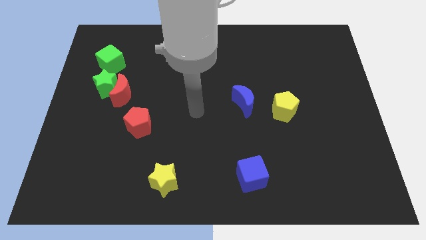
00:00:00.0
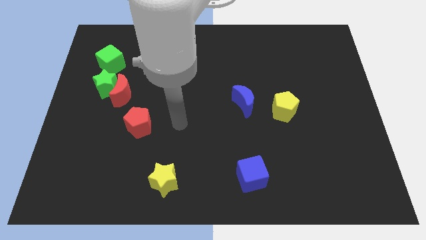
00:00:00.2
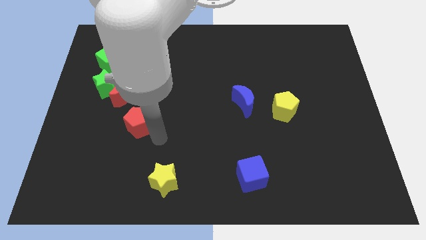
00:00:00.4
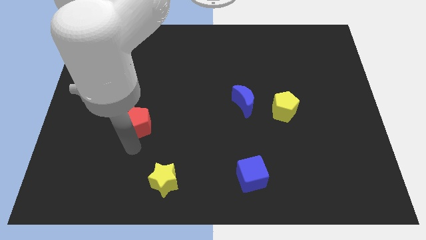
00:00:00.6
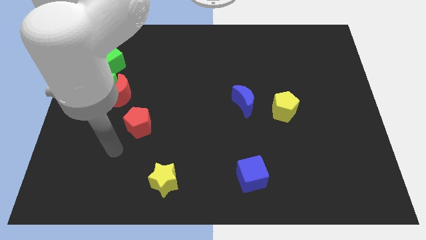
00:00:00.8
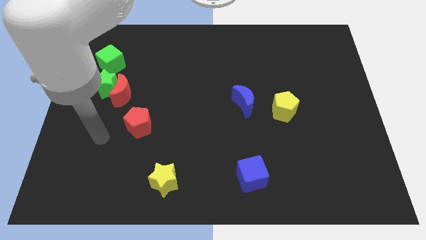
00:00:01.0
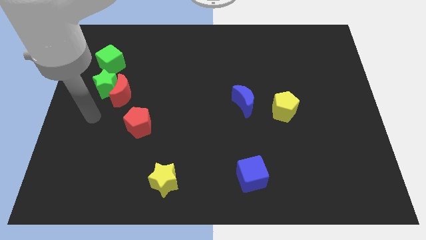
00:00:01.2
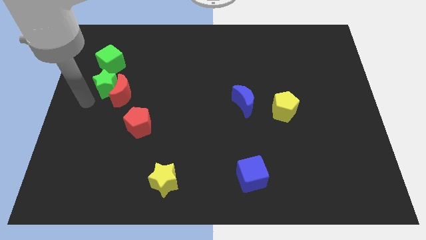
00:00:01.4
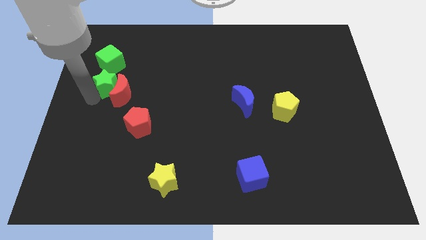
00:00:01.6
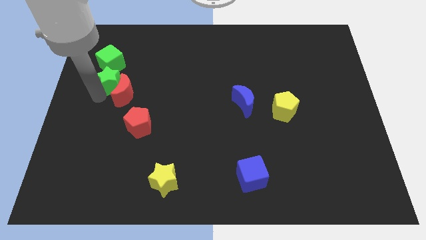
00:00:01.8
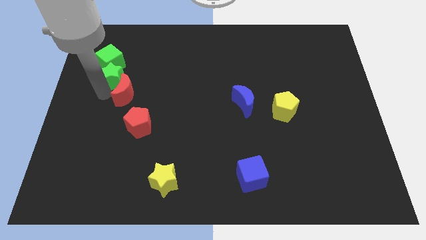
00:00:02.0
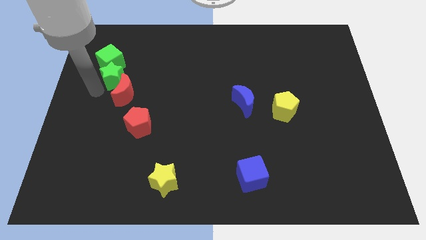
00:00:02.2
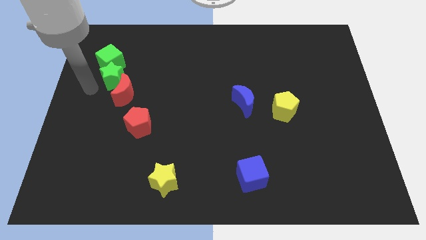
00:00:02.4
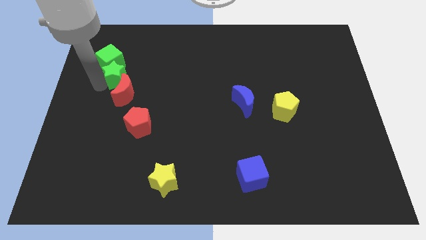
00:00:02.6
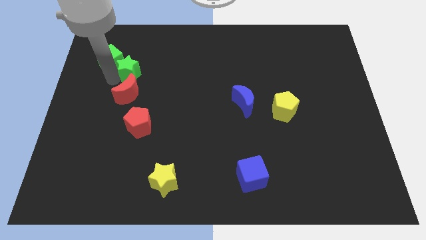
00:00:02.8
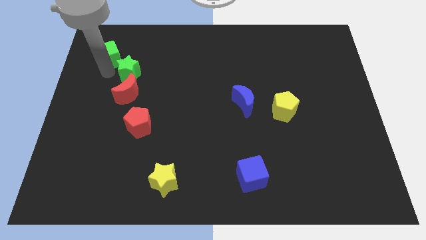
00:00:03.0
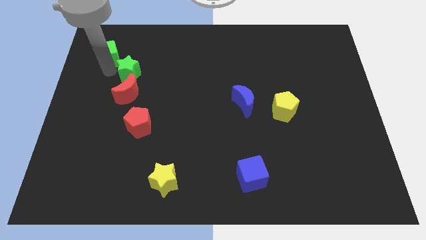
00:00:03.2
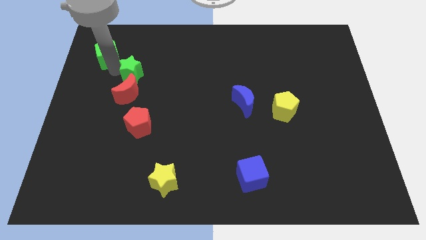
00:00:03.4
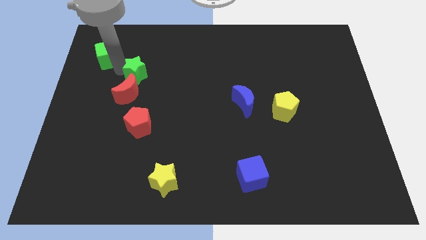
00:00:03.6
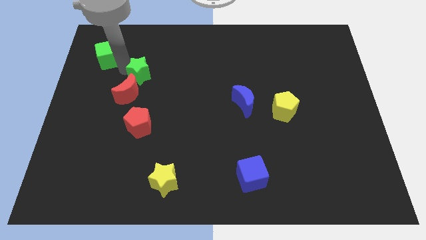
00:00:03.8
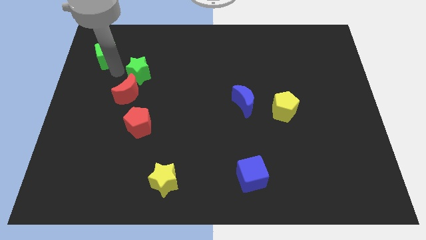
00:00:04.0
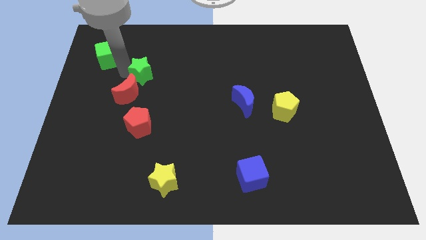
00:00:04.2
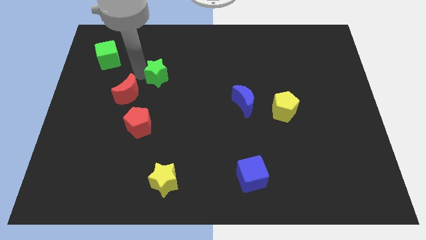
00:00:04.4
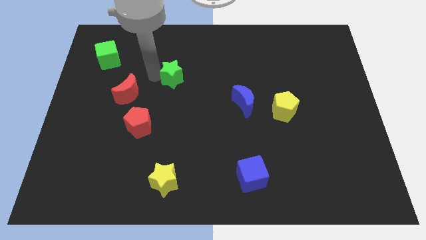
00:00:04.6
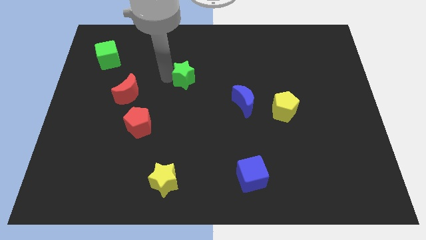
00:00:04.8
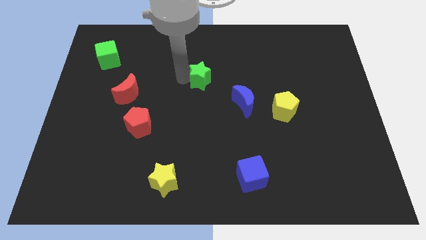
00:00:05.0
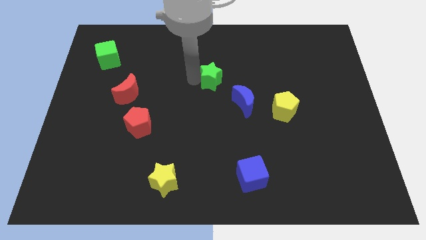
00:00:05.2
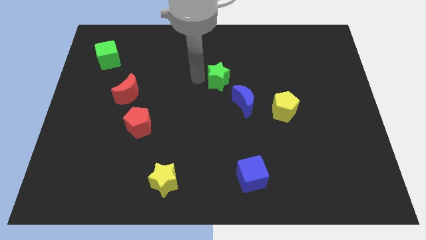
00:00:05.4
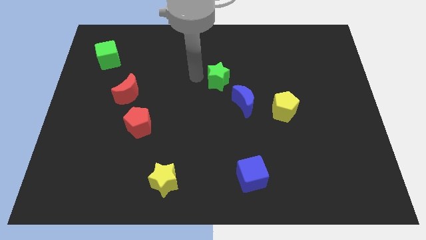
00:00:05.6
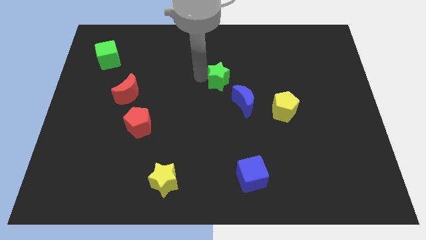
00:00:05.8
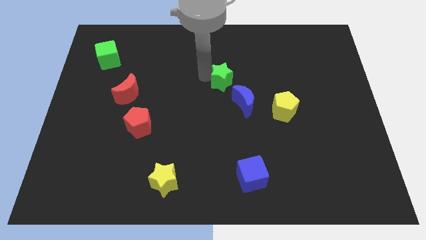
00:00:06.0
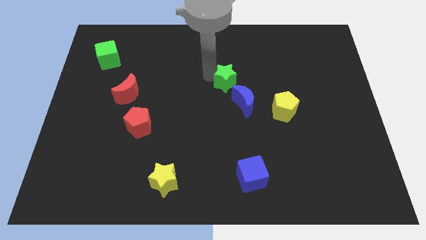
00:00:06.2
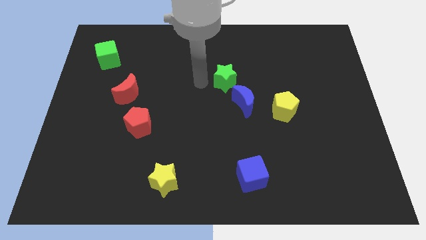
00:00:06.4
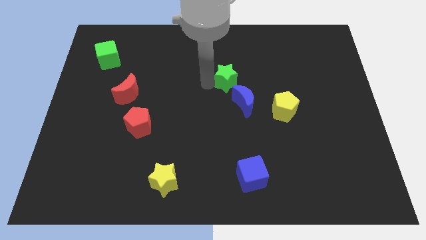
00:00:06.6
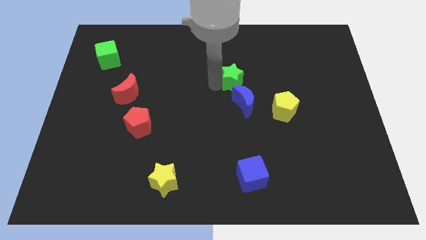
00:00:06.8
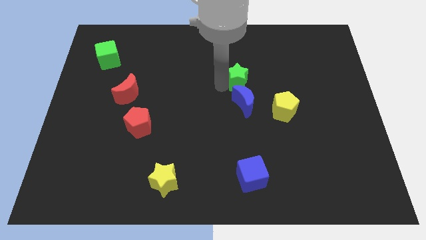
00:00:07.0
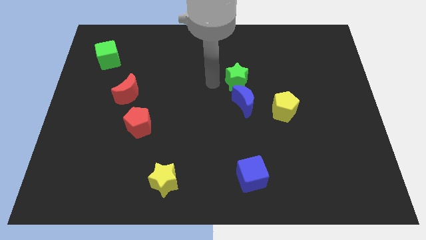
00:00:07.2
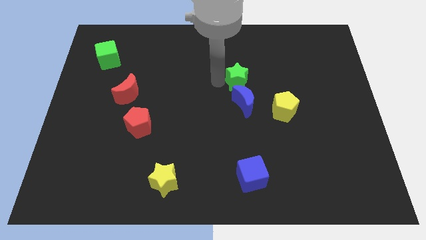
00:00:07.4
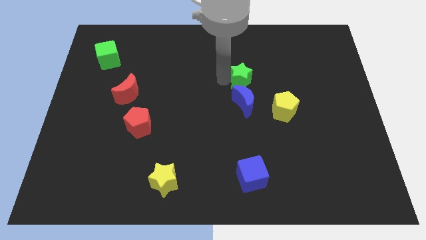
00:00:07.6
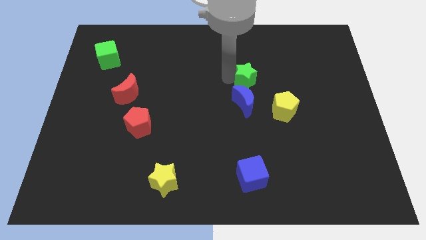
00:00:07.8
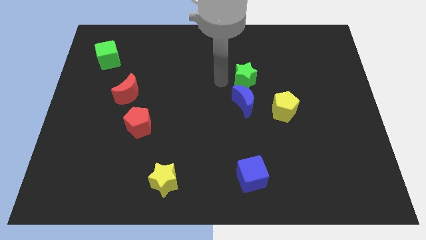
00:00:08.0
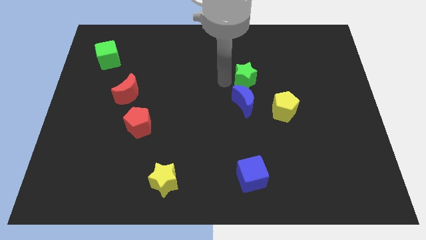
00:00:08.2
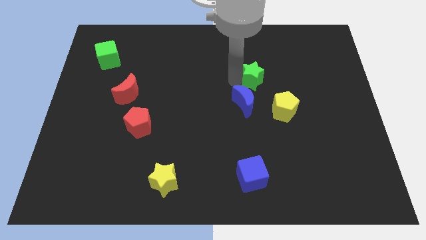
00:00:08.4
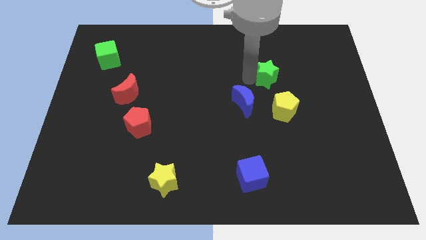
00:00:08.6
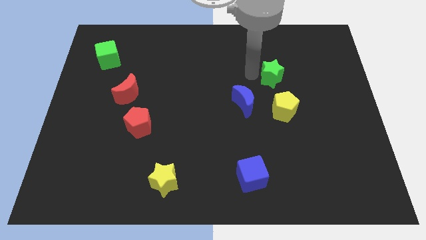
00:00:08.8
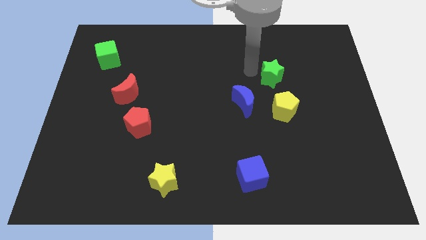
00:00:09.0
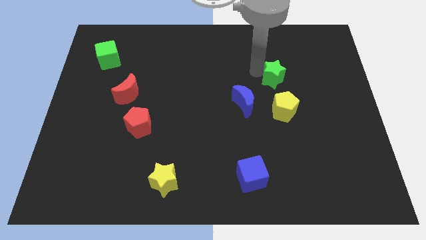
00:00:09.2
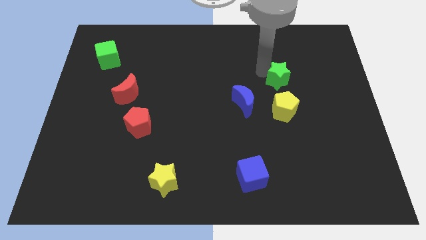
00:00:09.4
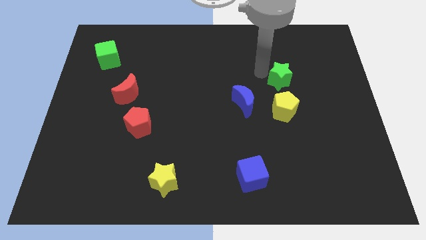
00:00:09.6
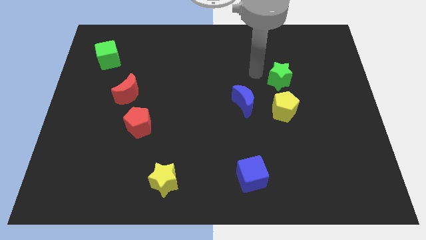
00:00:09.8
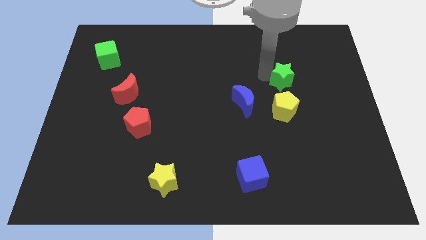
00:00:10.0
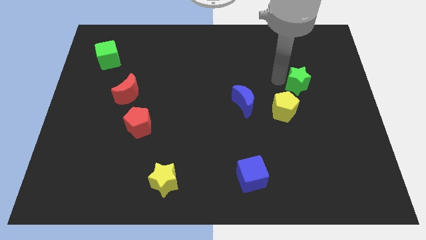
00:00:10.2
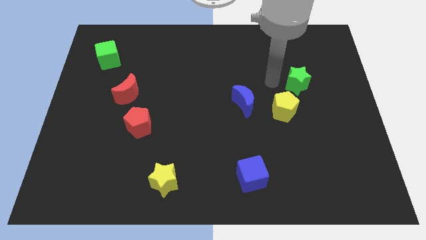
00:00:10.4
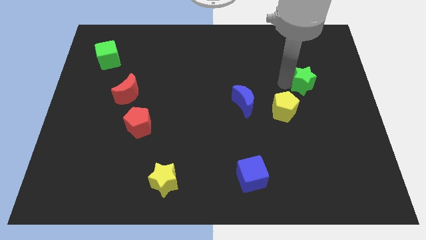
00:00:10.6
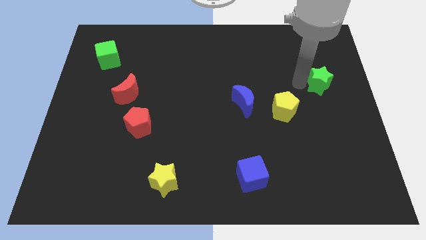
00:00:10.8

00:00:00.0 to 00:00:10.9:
put the green star to the right side

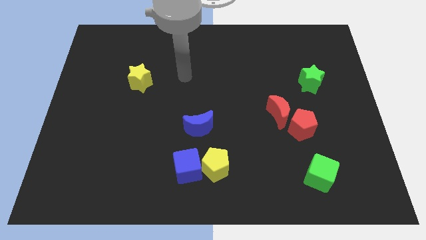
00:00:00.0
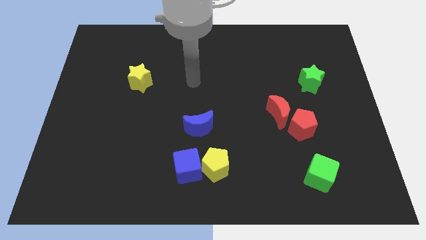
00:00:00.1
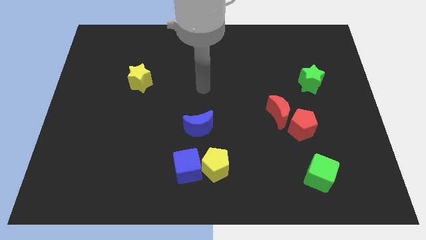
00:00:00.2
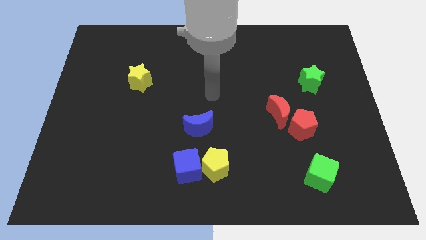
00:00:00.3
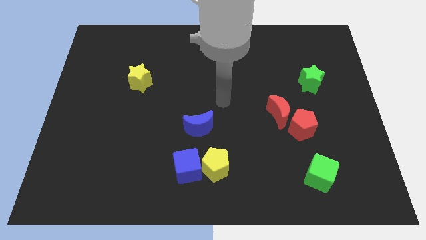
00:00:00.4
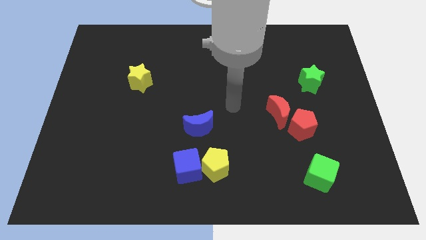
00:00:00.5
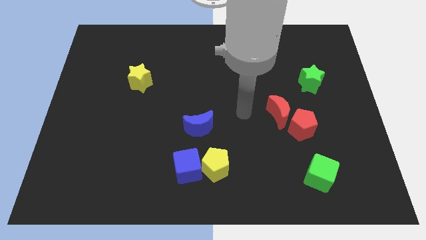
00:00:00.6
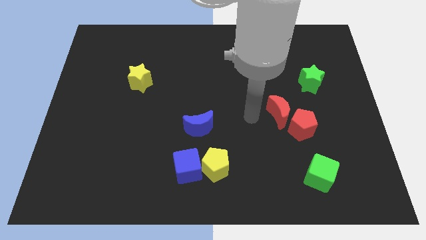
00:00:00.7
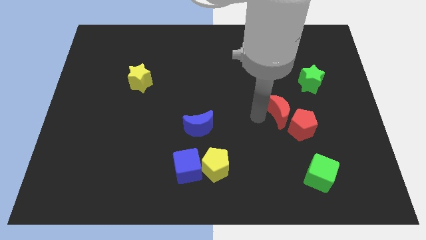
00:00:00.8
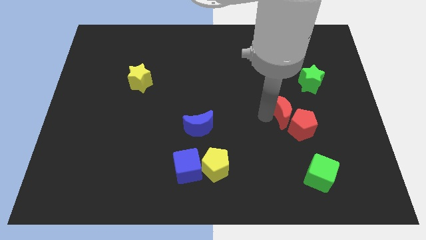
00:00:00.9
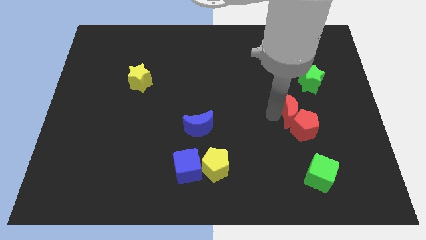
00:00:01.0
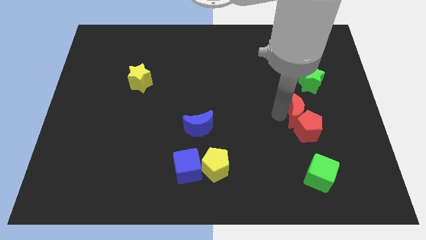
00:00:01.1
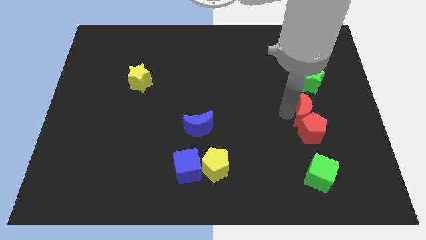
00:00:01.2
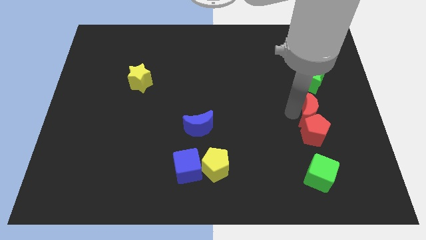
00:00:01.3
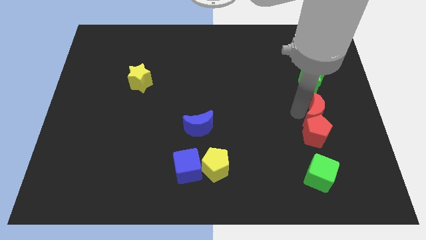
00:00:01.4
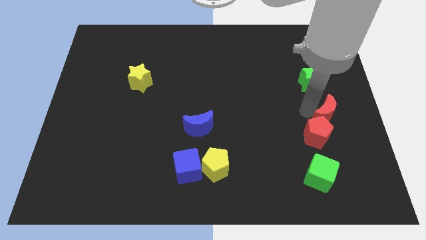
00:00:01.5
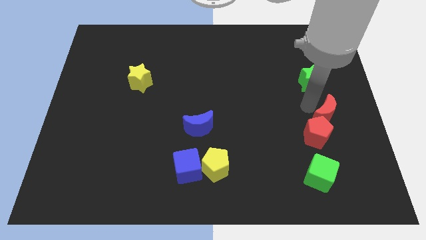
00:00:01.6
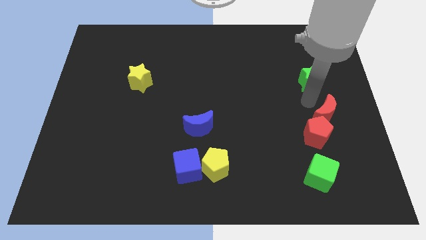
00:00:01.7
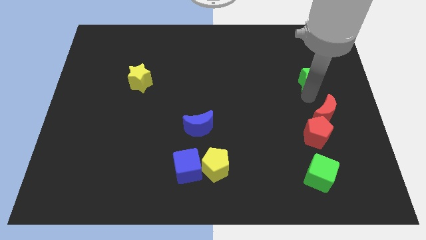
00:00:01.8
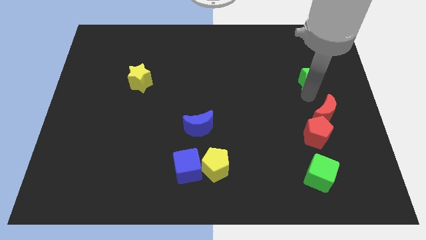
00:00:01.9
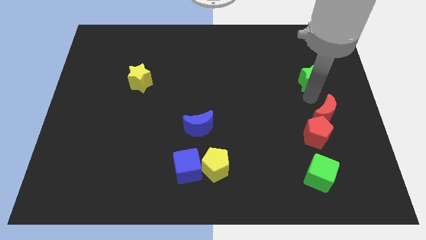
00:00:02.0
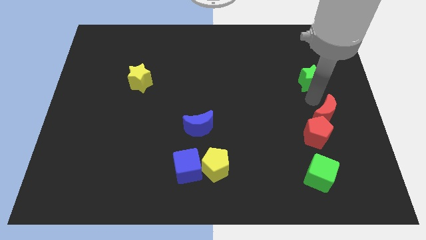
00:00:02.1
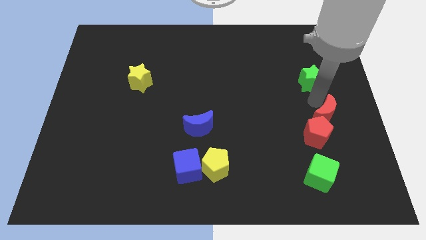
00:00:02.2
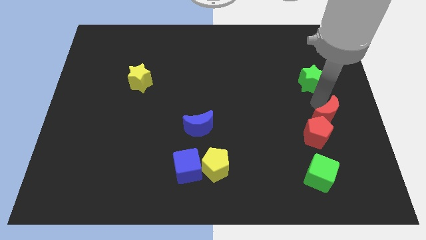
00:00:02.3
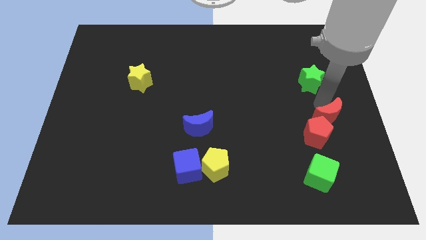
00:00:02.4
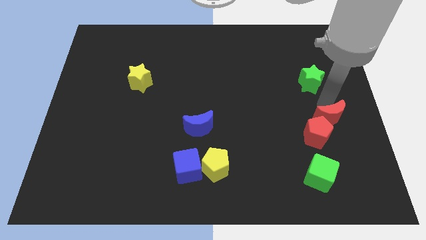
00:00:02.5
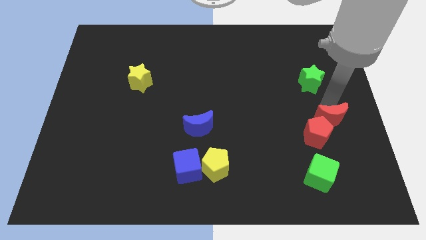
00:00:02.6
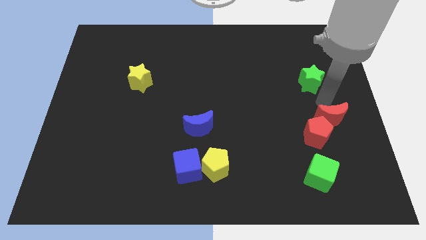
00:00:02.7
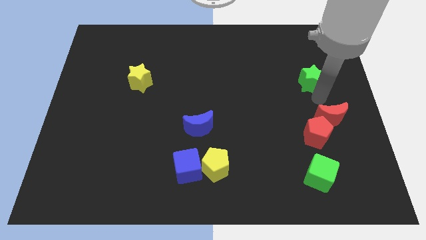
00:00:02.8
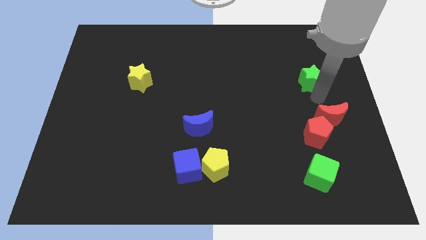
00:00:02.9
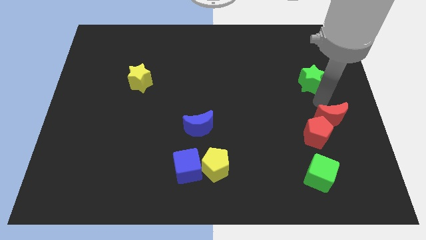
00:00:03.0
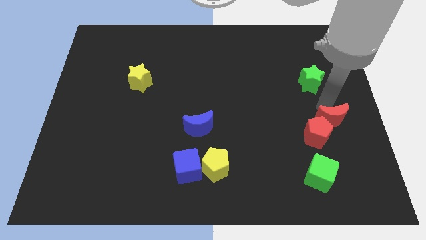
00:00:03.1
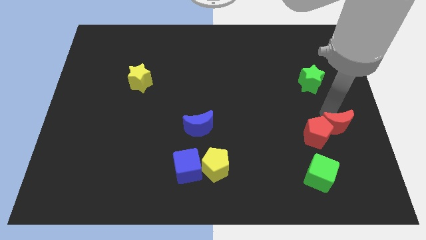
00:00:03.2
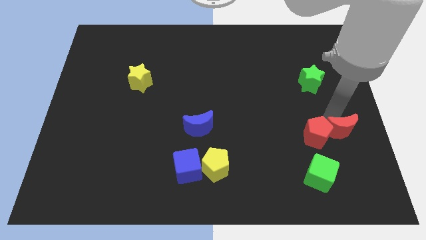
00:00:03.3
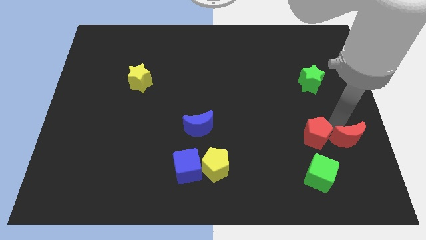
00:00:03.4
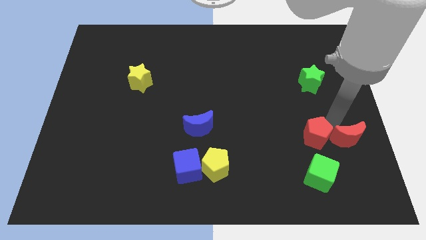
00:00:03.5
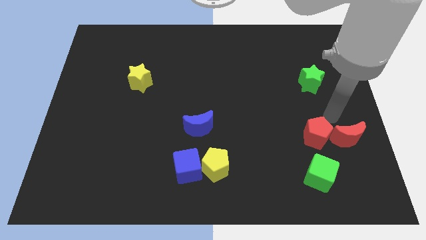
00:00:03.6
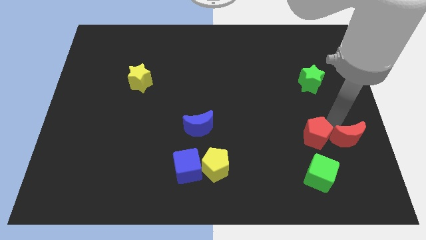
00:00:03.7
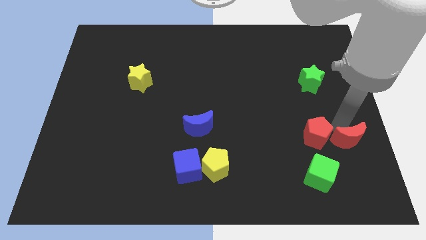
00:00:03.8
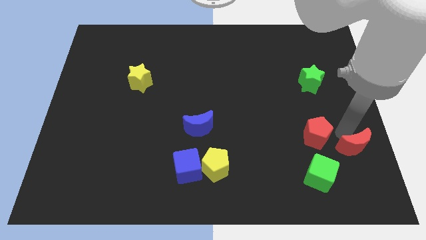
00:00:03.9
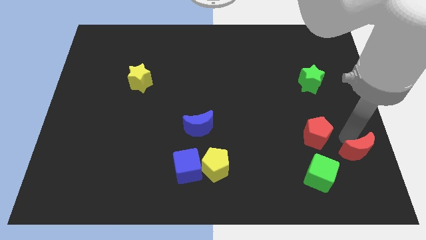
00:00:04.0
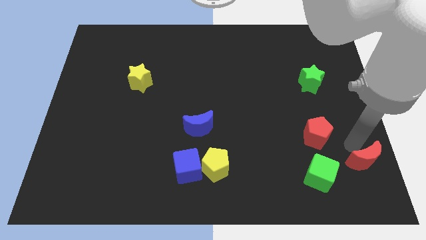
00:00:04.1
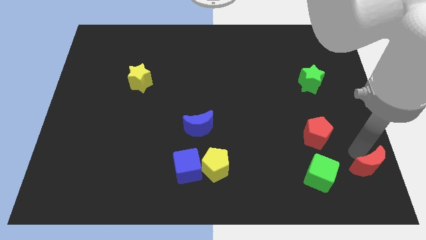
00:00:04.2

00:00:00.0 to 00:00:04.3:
slide the red moon to the lower right corner
